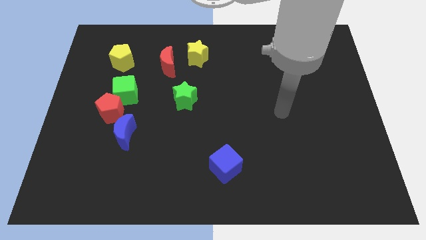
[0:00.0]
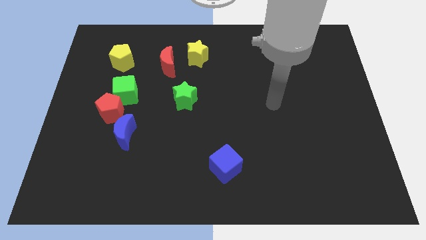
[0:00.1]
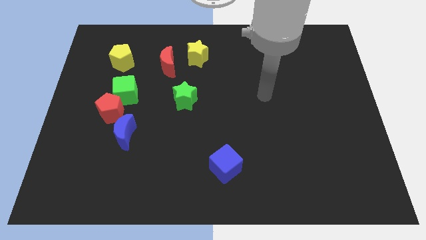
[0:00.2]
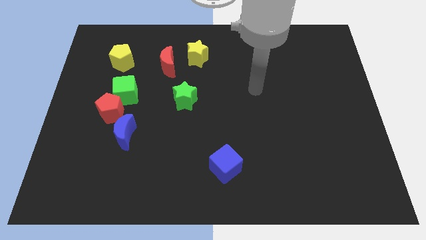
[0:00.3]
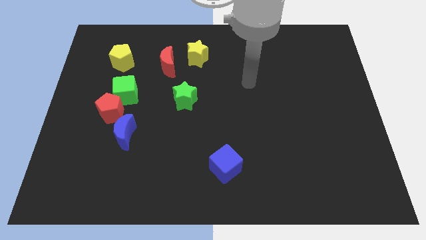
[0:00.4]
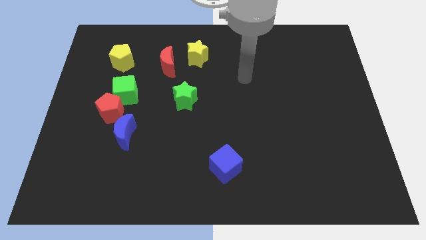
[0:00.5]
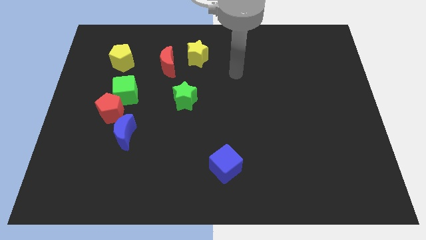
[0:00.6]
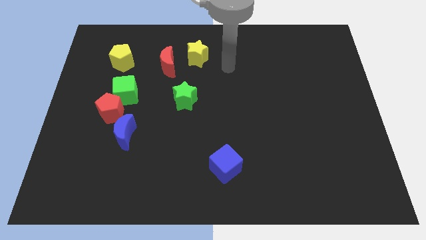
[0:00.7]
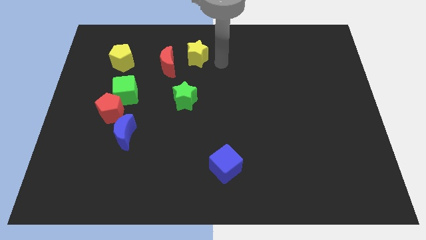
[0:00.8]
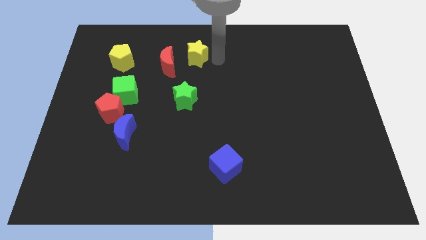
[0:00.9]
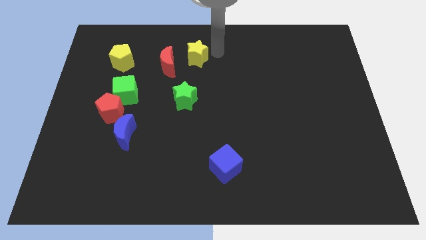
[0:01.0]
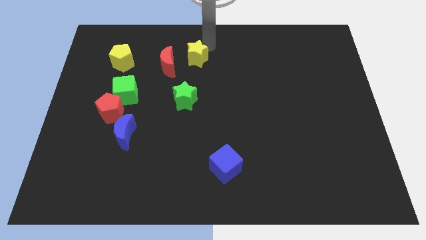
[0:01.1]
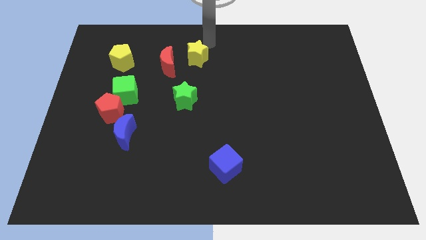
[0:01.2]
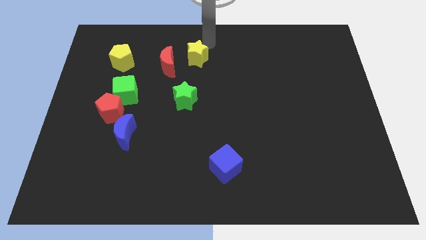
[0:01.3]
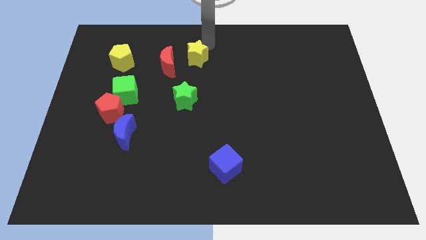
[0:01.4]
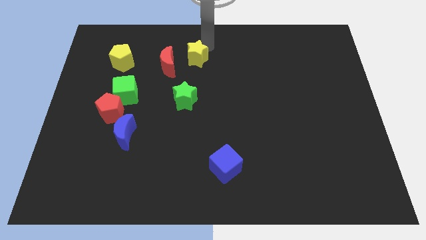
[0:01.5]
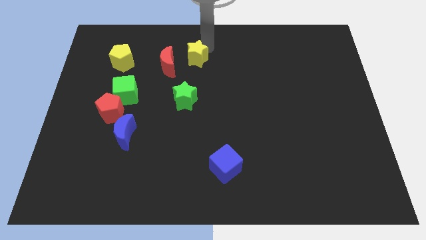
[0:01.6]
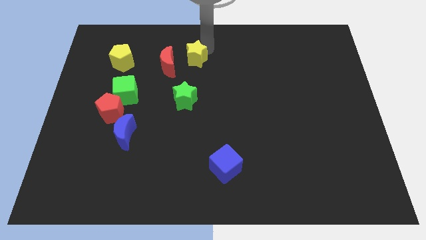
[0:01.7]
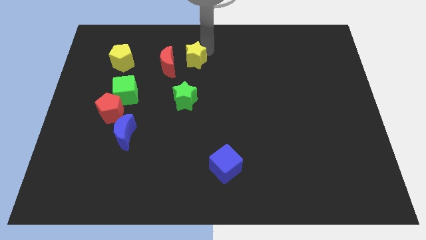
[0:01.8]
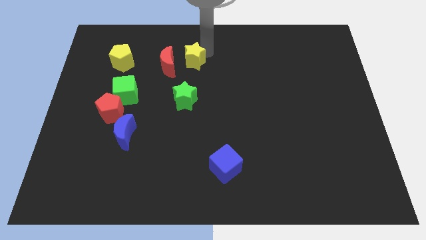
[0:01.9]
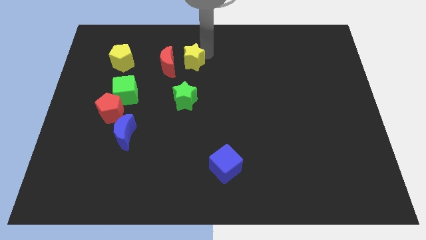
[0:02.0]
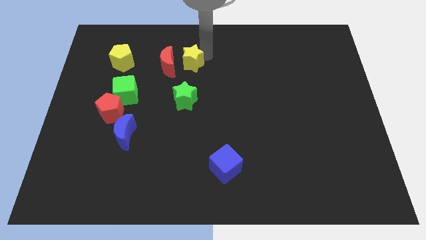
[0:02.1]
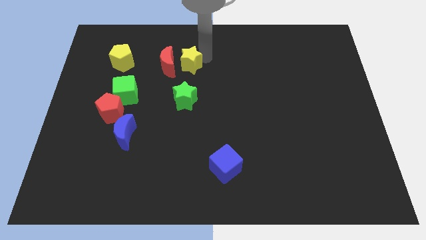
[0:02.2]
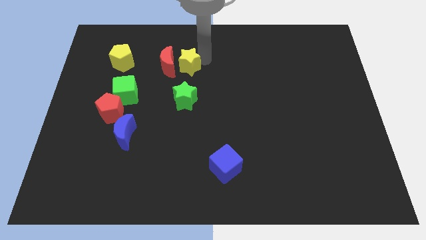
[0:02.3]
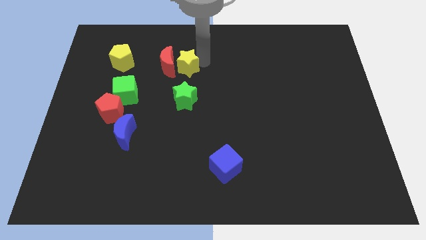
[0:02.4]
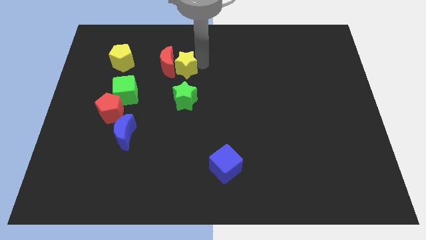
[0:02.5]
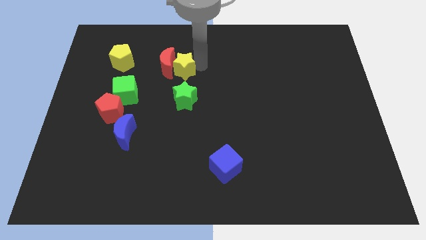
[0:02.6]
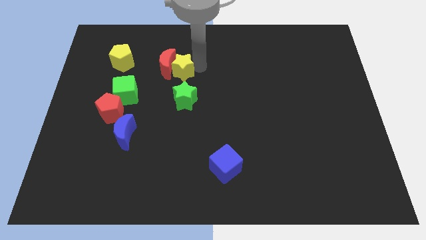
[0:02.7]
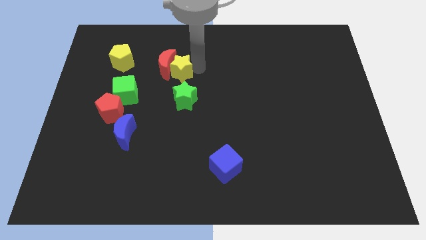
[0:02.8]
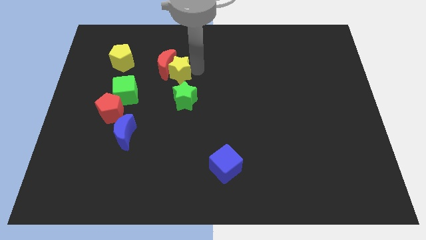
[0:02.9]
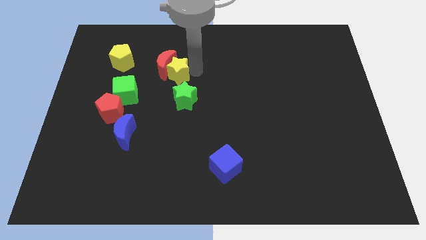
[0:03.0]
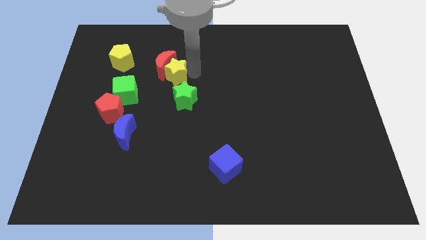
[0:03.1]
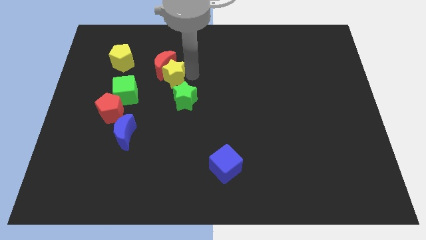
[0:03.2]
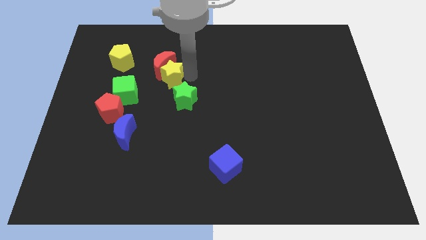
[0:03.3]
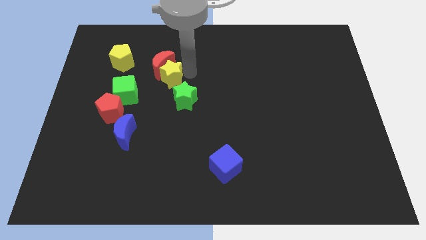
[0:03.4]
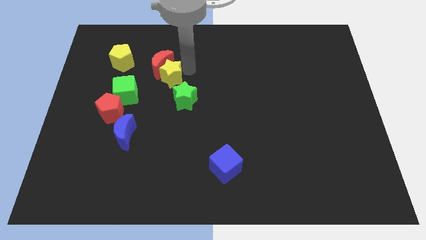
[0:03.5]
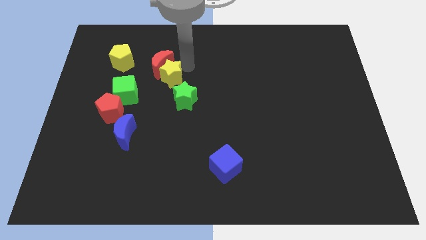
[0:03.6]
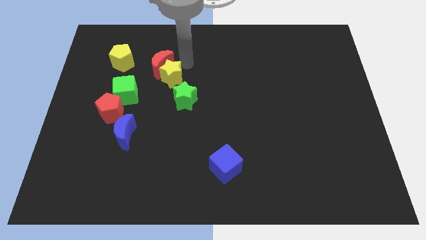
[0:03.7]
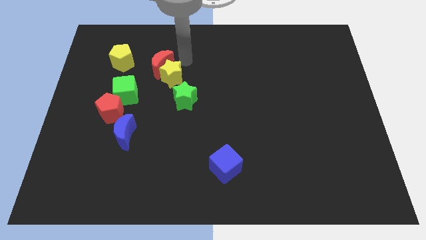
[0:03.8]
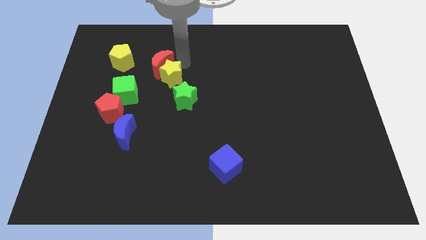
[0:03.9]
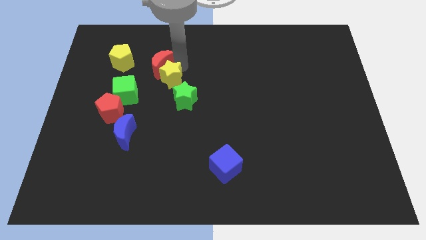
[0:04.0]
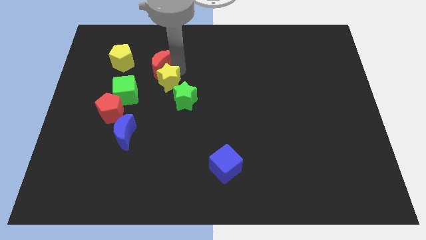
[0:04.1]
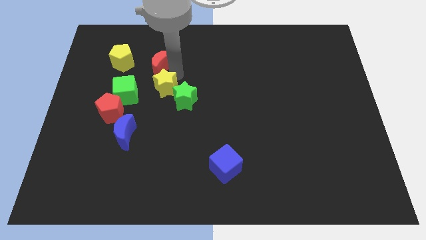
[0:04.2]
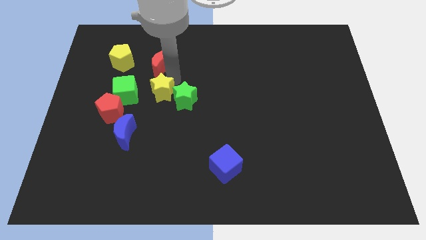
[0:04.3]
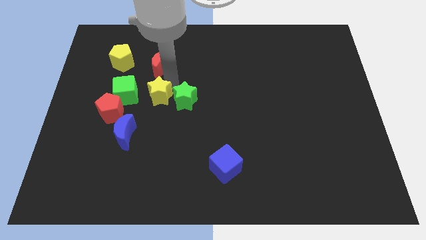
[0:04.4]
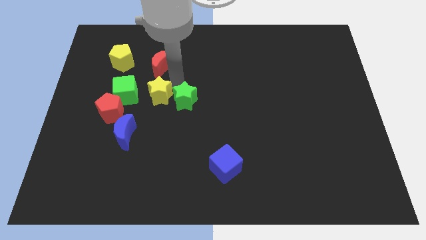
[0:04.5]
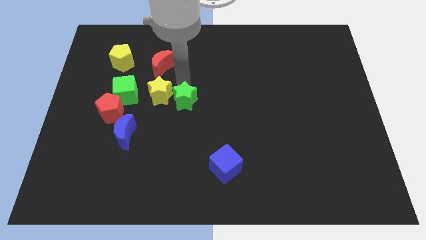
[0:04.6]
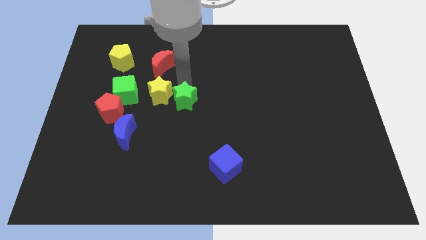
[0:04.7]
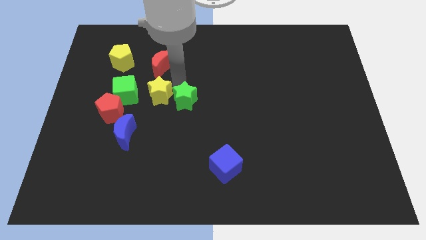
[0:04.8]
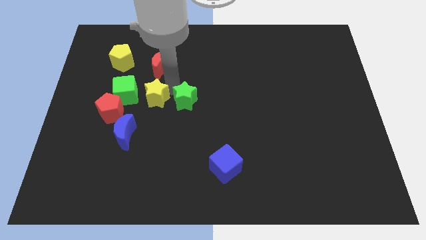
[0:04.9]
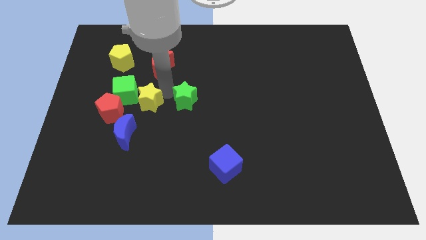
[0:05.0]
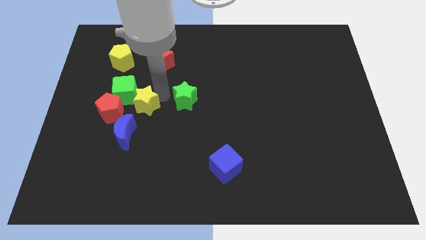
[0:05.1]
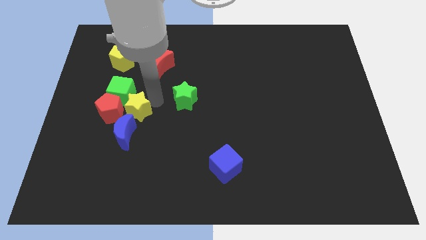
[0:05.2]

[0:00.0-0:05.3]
put the yellow star next to the red pentagon
